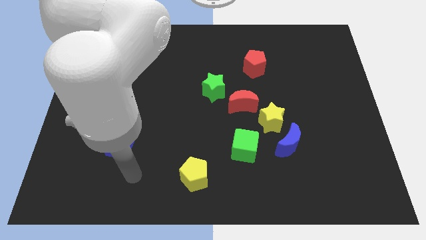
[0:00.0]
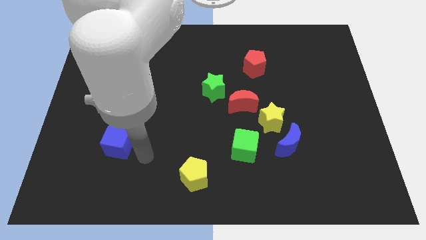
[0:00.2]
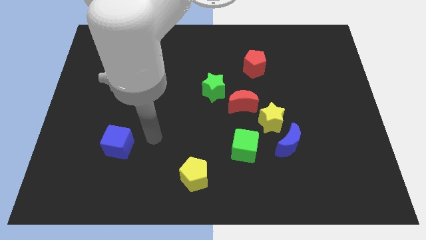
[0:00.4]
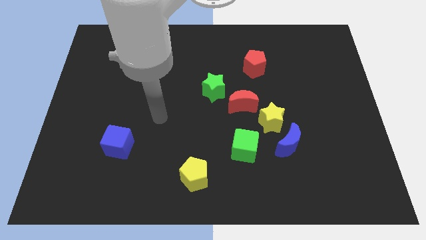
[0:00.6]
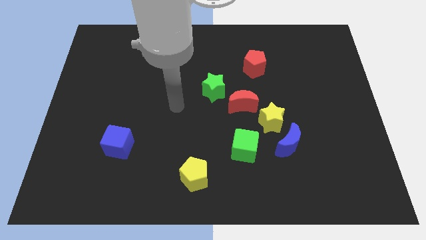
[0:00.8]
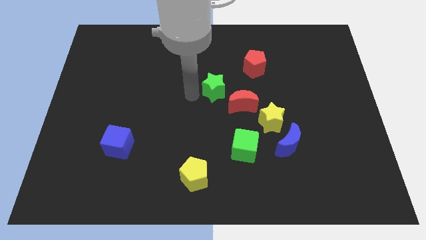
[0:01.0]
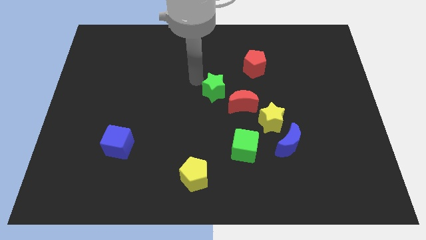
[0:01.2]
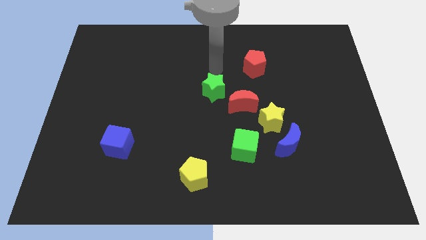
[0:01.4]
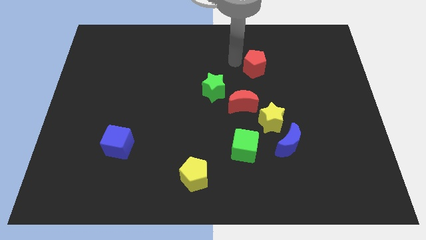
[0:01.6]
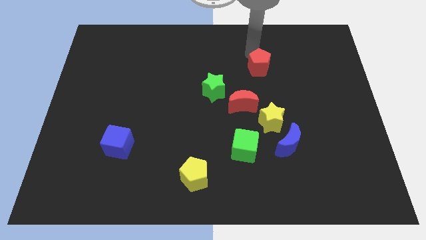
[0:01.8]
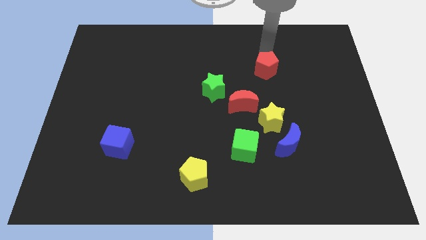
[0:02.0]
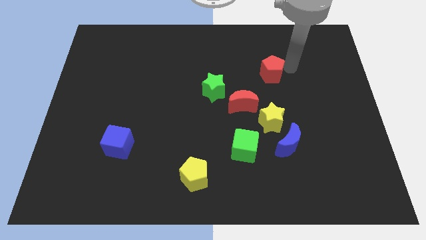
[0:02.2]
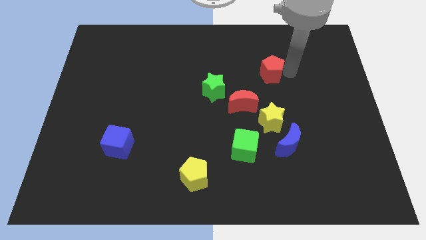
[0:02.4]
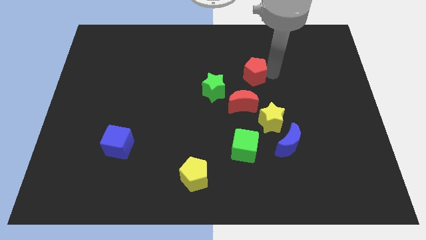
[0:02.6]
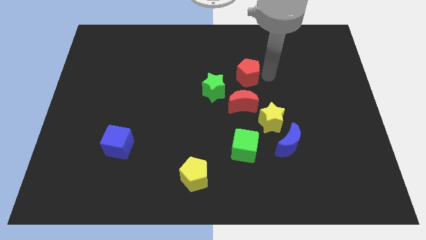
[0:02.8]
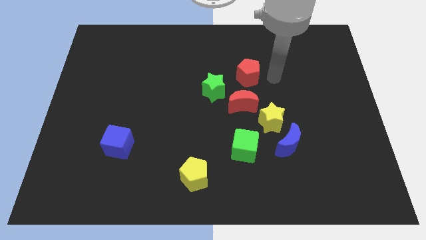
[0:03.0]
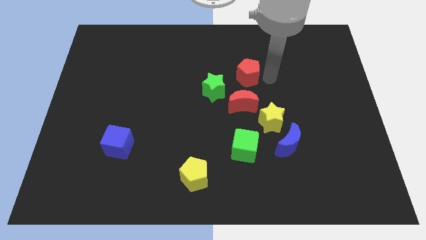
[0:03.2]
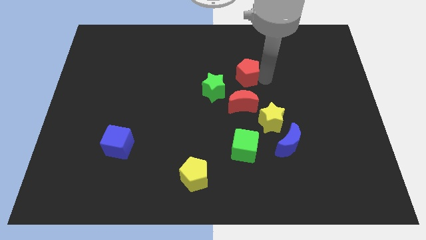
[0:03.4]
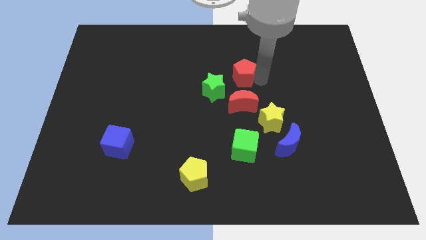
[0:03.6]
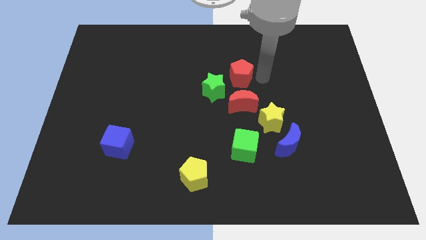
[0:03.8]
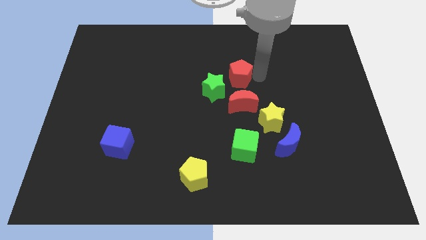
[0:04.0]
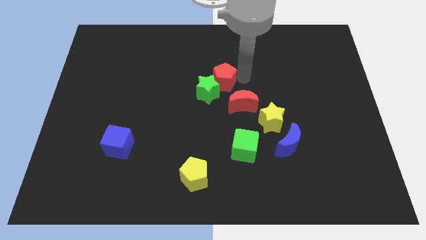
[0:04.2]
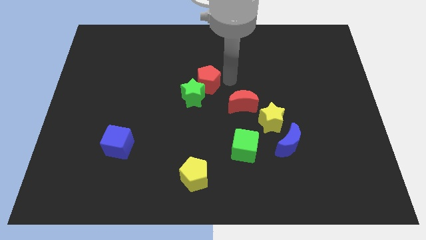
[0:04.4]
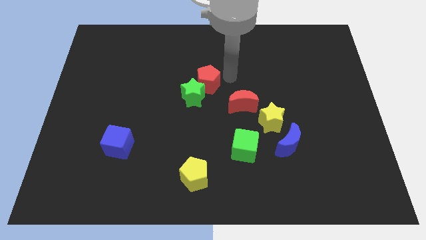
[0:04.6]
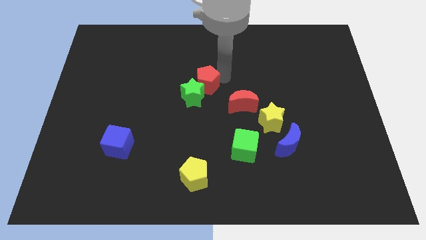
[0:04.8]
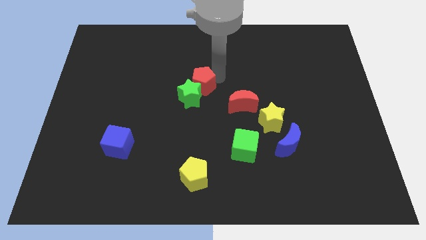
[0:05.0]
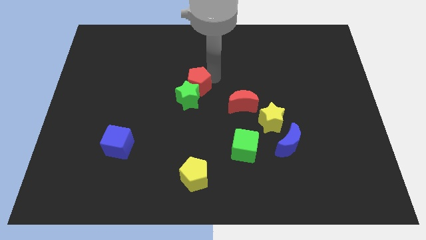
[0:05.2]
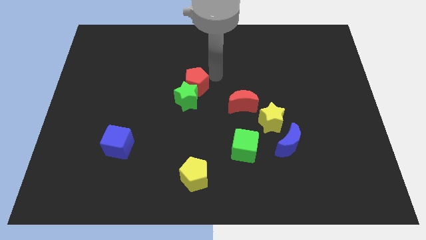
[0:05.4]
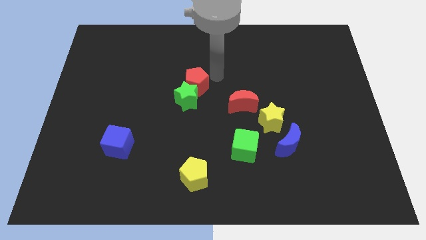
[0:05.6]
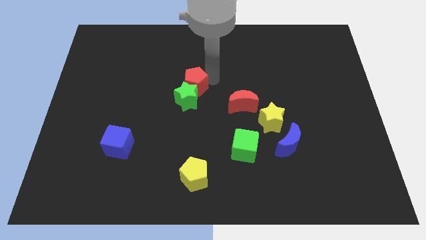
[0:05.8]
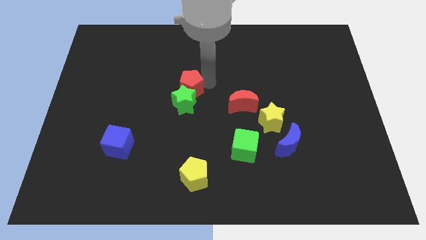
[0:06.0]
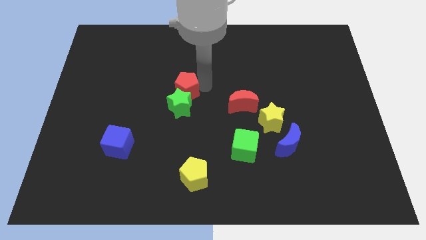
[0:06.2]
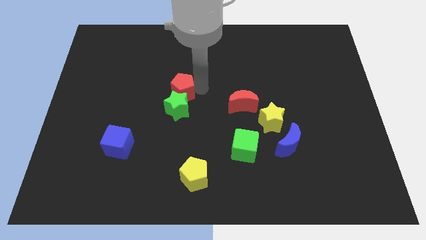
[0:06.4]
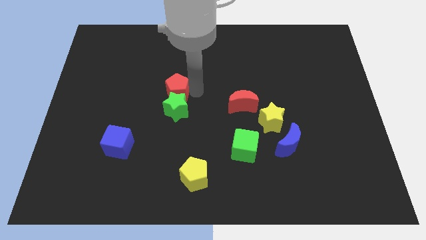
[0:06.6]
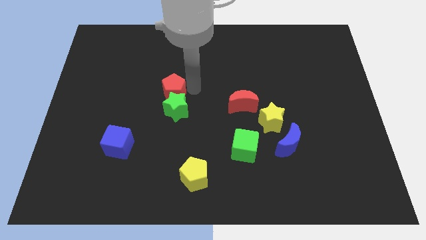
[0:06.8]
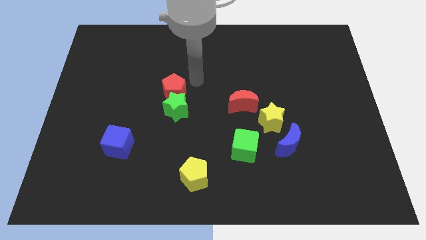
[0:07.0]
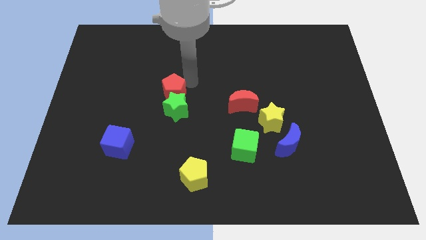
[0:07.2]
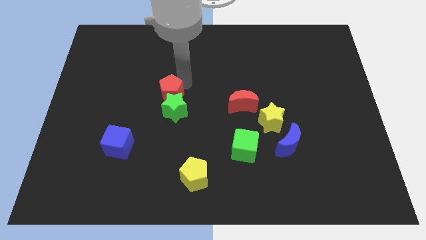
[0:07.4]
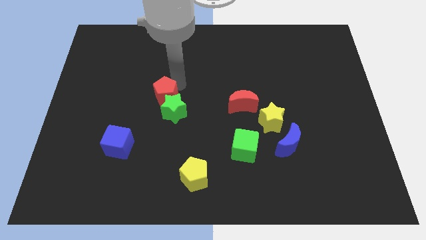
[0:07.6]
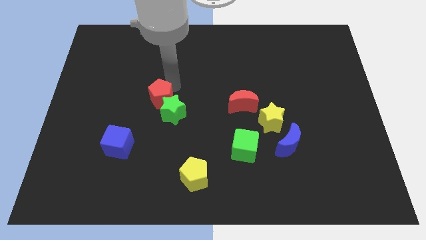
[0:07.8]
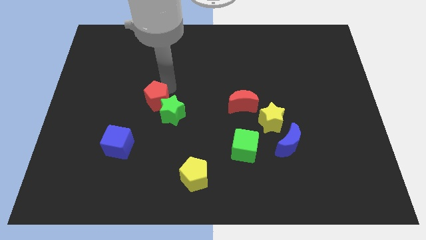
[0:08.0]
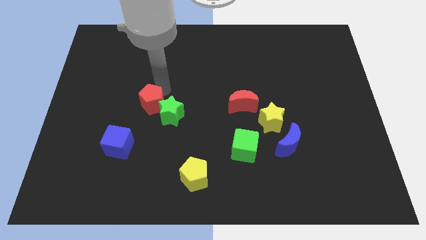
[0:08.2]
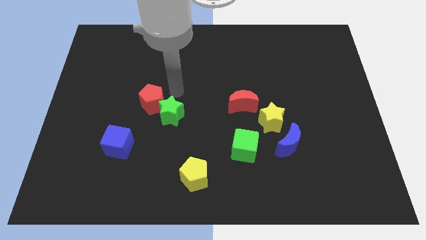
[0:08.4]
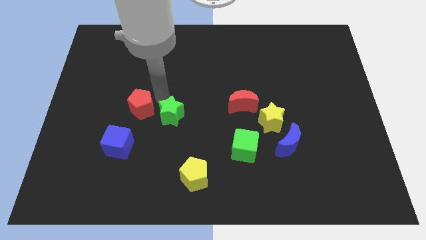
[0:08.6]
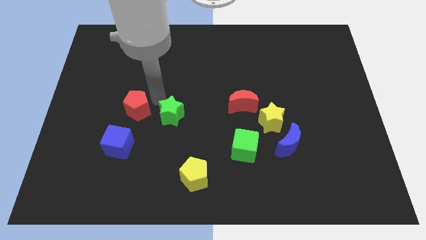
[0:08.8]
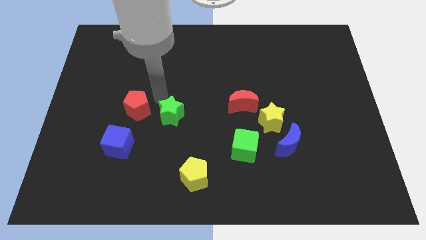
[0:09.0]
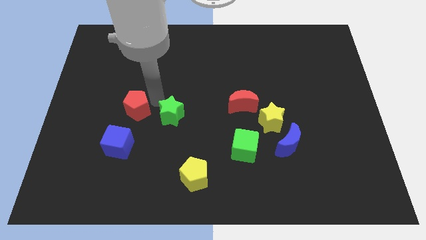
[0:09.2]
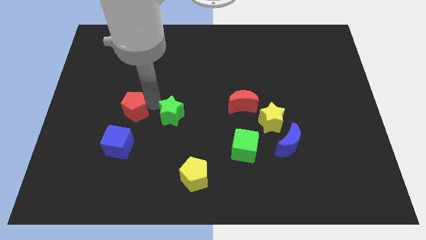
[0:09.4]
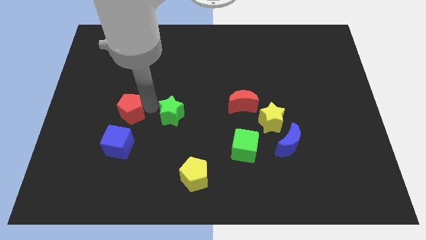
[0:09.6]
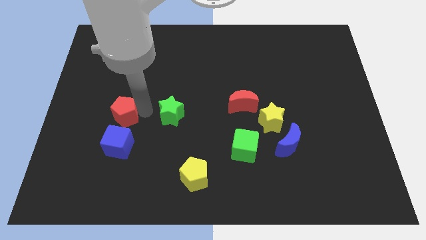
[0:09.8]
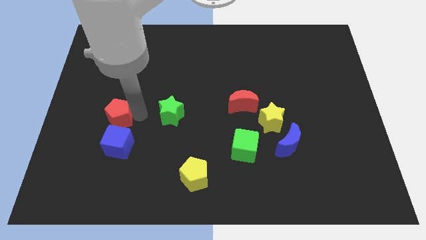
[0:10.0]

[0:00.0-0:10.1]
move the red pentagon to the top left of the blue cube

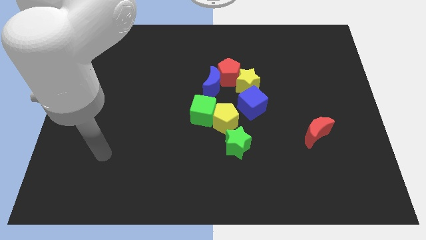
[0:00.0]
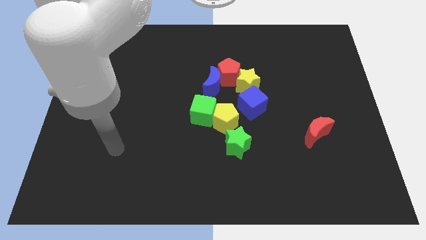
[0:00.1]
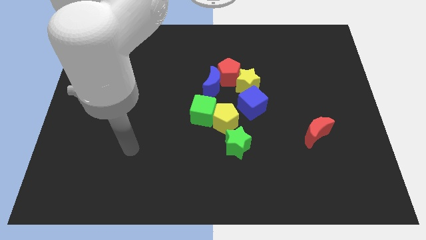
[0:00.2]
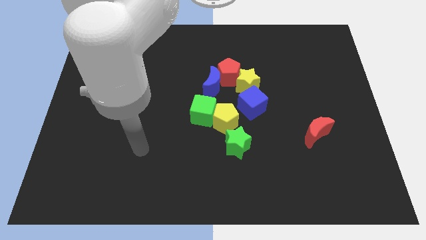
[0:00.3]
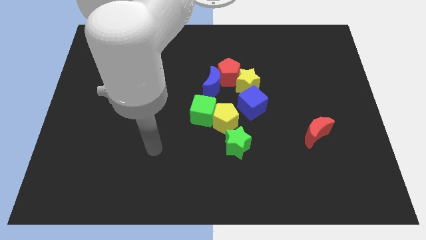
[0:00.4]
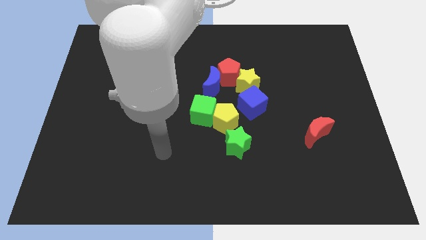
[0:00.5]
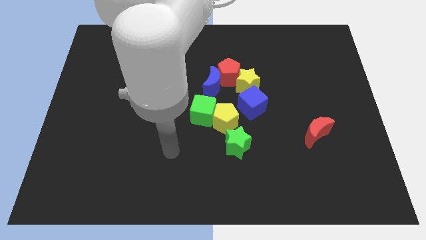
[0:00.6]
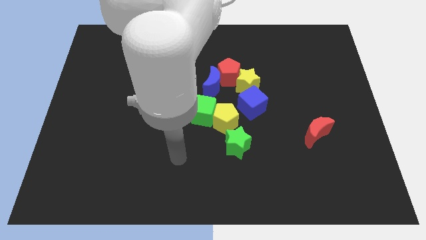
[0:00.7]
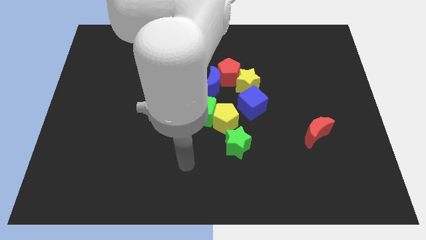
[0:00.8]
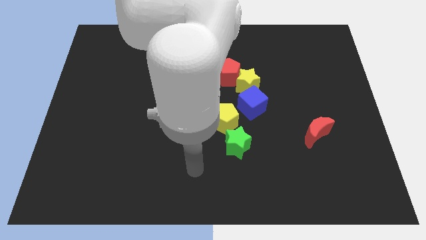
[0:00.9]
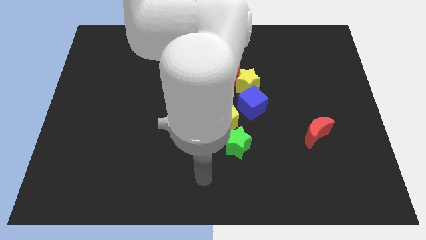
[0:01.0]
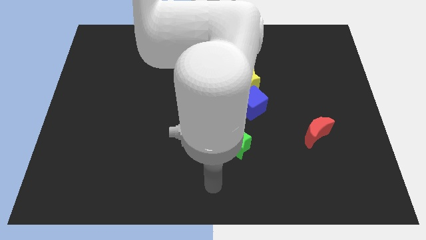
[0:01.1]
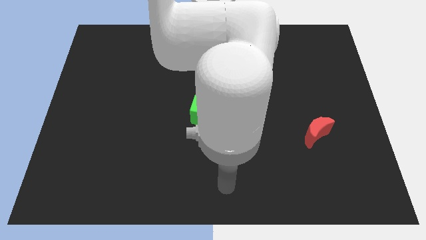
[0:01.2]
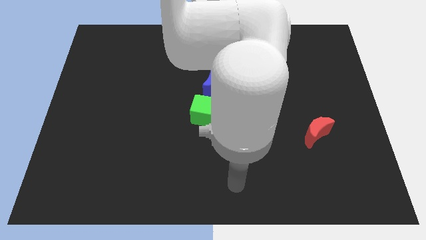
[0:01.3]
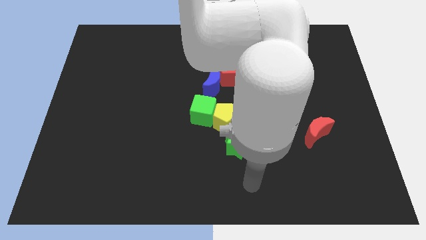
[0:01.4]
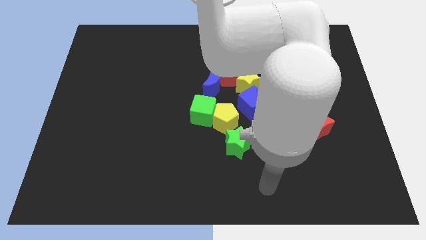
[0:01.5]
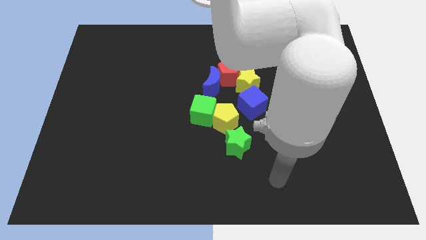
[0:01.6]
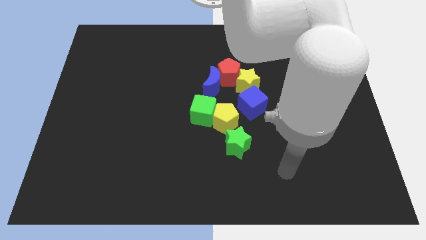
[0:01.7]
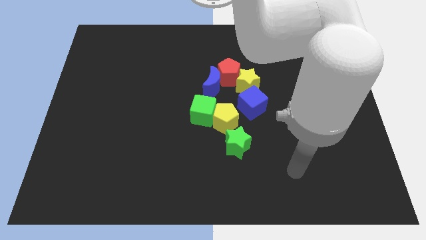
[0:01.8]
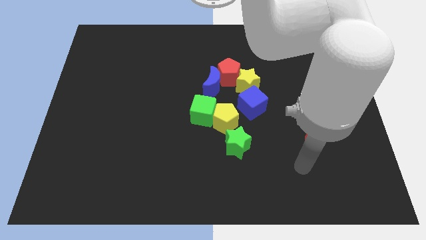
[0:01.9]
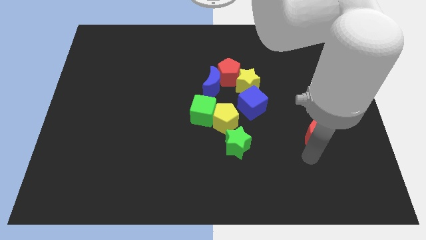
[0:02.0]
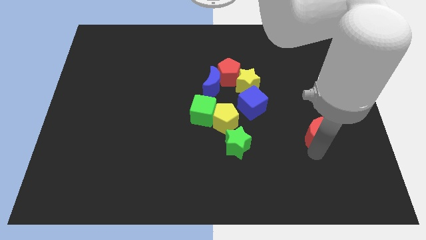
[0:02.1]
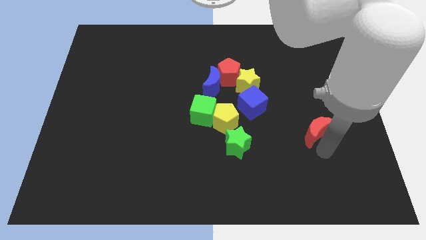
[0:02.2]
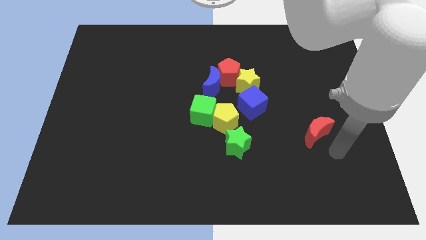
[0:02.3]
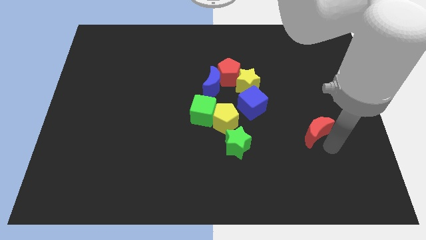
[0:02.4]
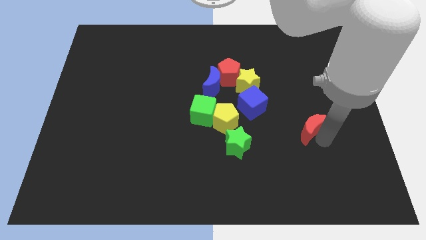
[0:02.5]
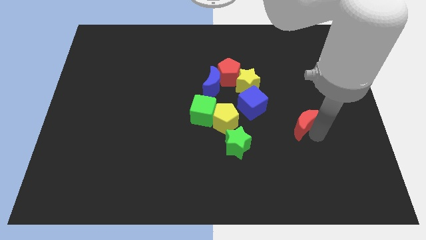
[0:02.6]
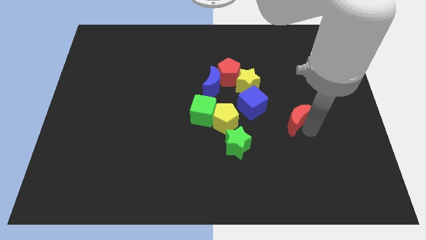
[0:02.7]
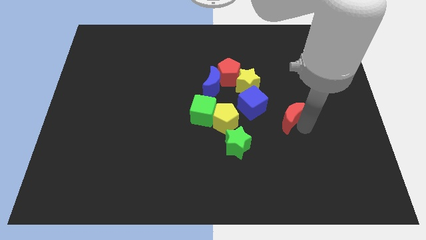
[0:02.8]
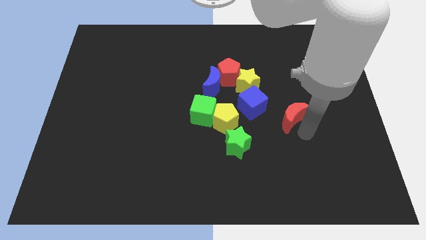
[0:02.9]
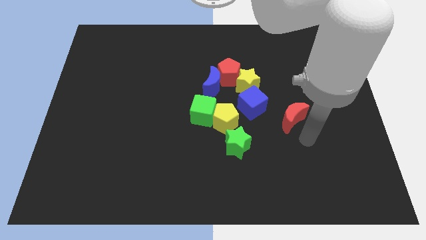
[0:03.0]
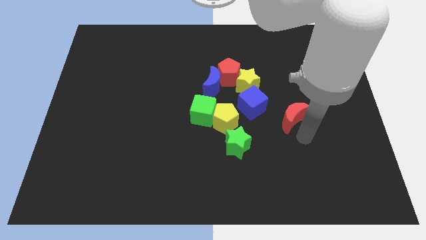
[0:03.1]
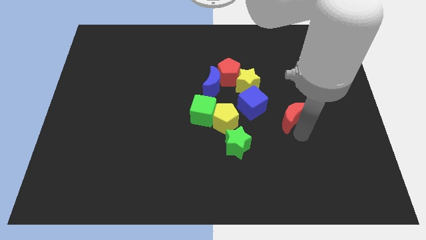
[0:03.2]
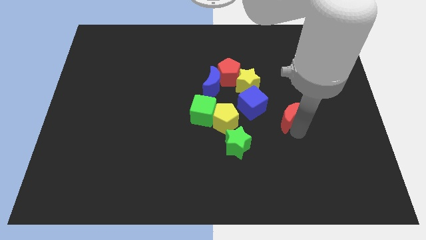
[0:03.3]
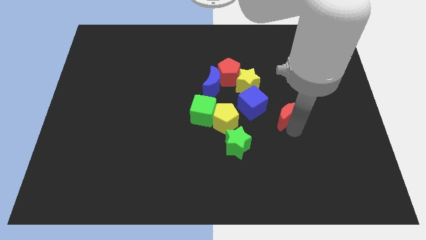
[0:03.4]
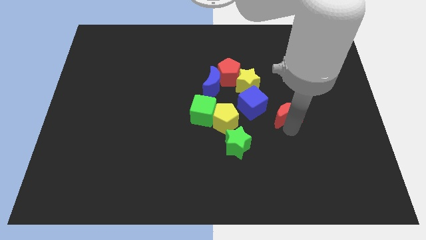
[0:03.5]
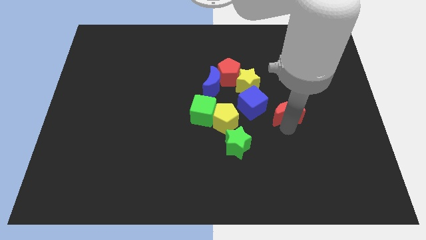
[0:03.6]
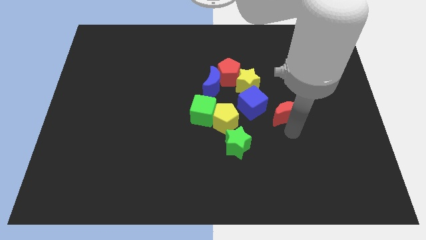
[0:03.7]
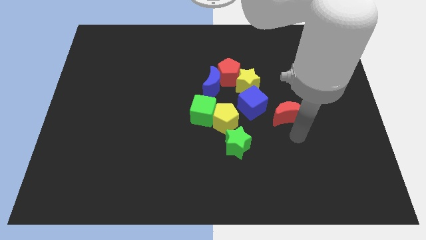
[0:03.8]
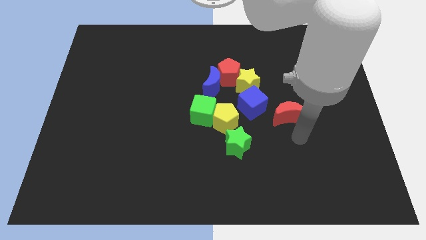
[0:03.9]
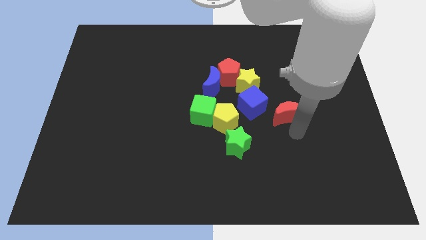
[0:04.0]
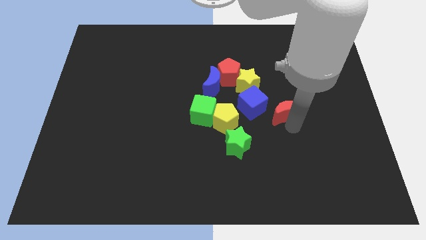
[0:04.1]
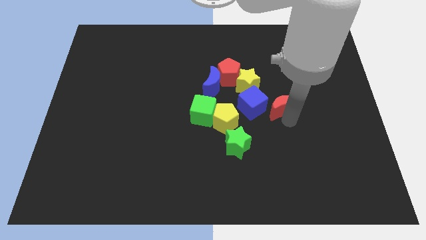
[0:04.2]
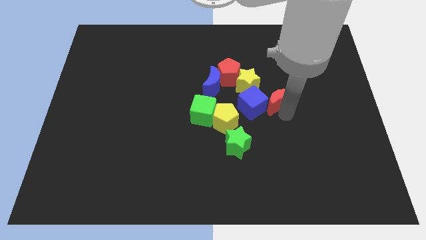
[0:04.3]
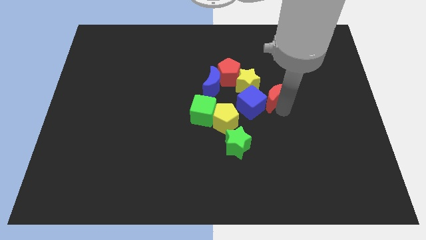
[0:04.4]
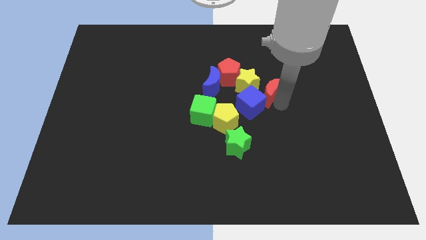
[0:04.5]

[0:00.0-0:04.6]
put the red moon to the right of the blue moon
